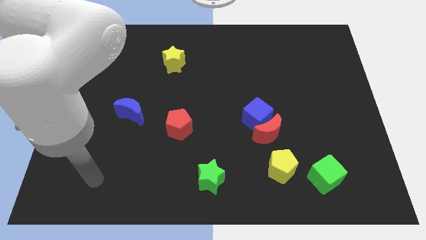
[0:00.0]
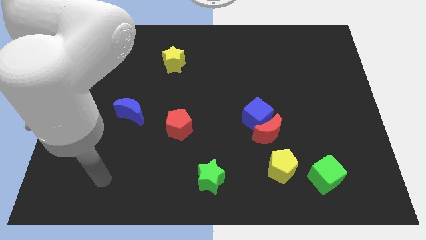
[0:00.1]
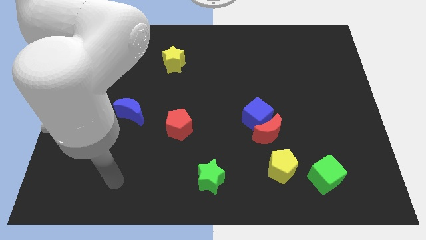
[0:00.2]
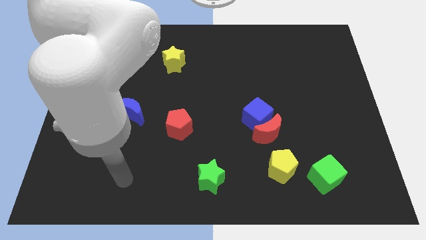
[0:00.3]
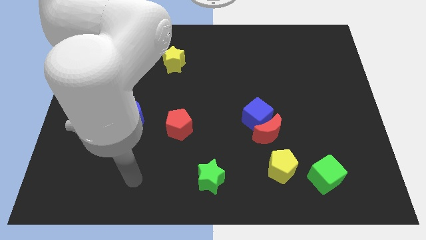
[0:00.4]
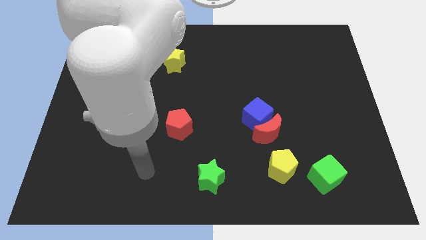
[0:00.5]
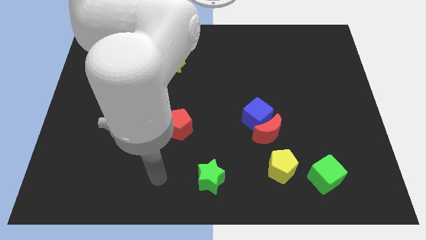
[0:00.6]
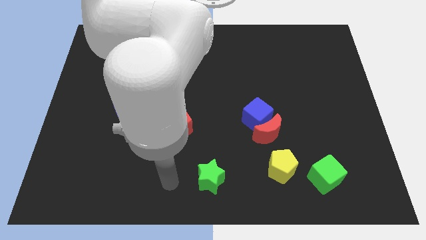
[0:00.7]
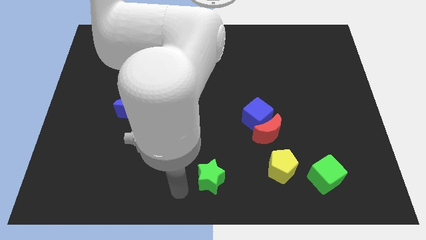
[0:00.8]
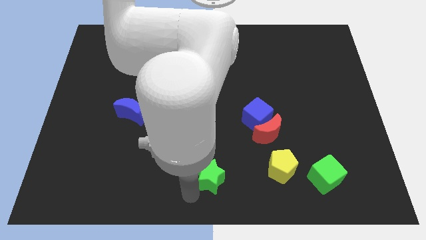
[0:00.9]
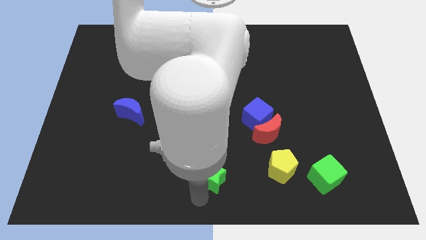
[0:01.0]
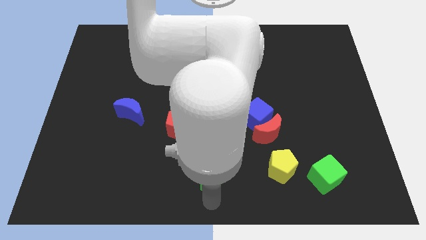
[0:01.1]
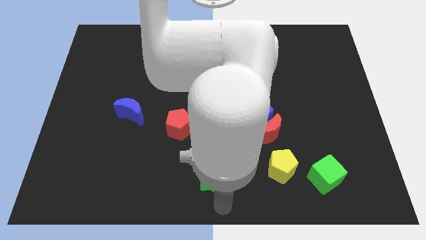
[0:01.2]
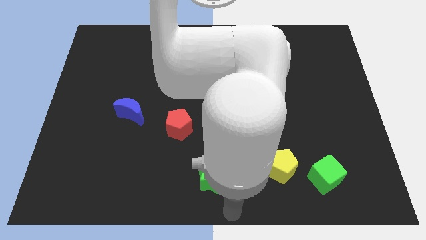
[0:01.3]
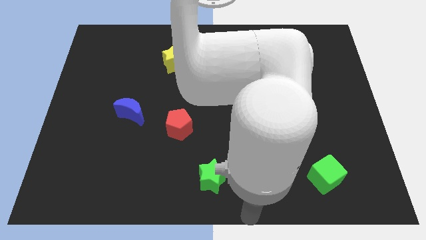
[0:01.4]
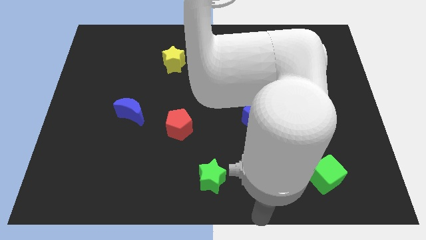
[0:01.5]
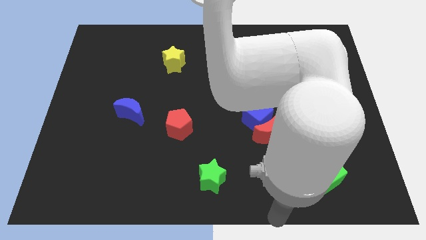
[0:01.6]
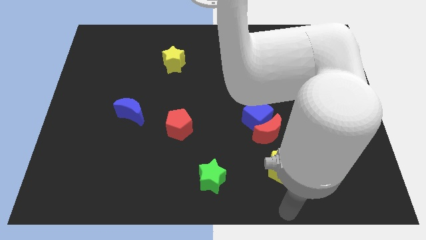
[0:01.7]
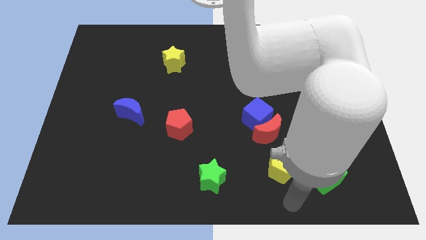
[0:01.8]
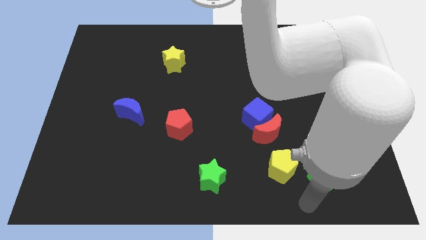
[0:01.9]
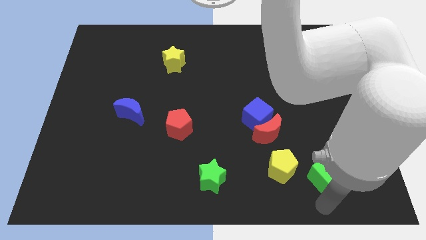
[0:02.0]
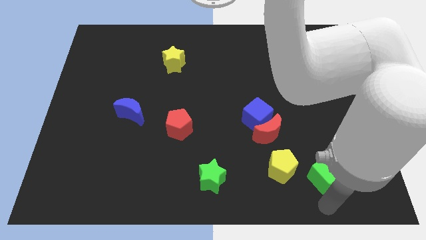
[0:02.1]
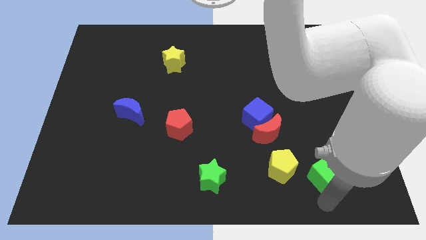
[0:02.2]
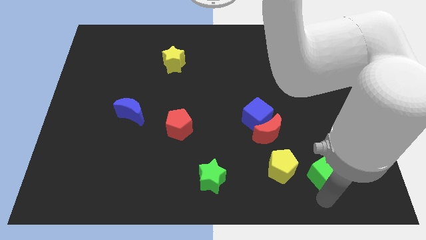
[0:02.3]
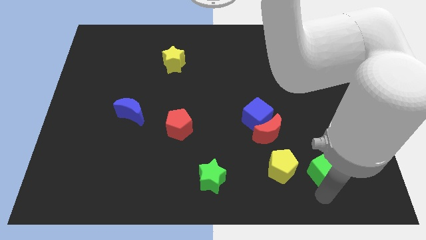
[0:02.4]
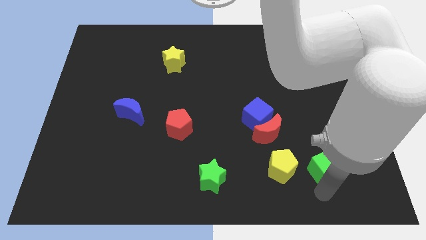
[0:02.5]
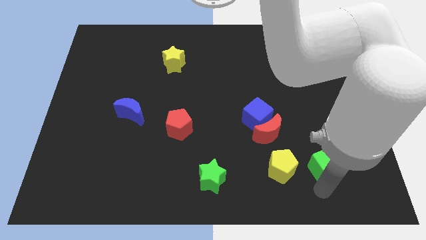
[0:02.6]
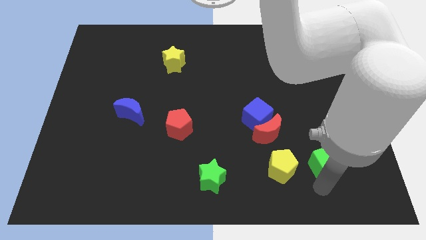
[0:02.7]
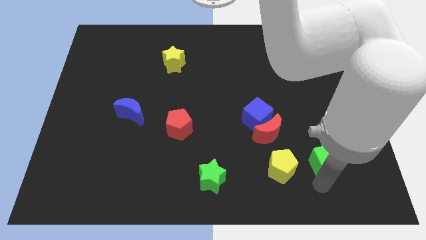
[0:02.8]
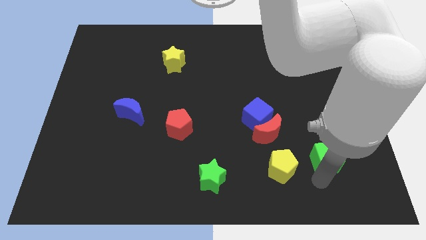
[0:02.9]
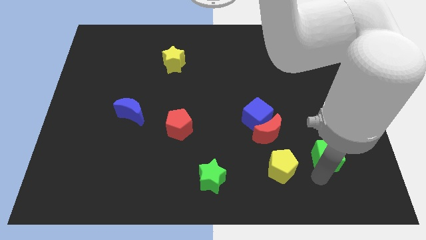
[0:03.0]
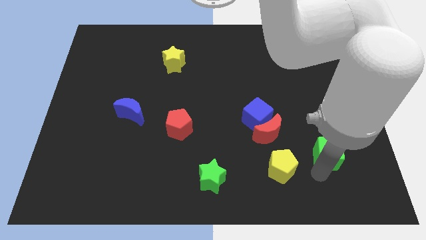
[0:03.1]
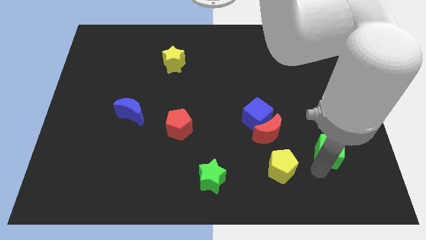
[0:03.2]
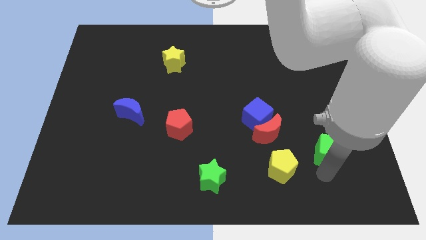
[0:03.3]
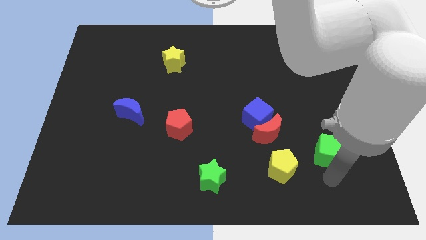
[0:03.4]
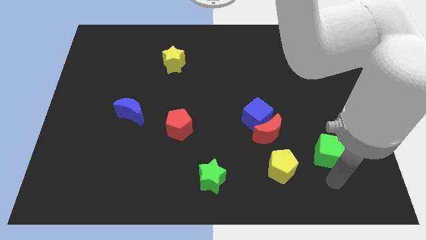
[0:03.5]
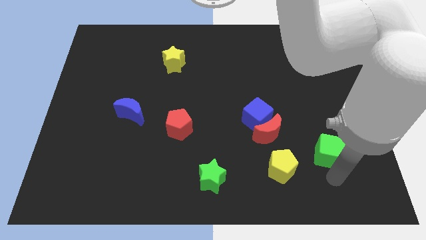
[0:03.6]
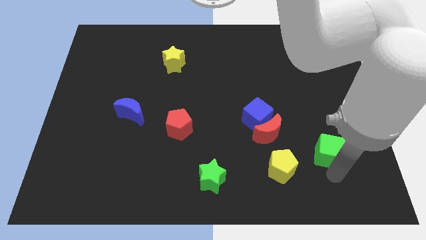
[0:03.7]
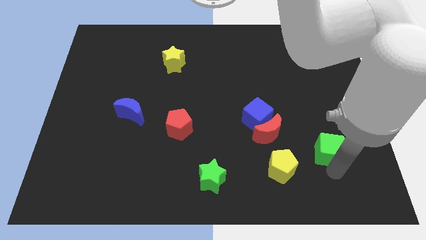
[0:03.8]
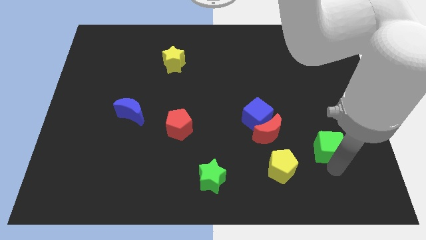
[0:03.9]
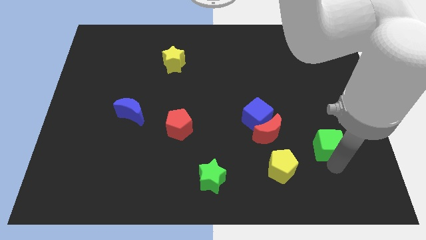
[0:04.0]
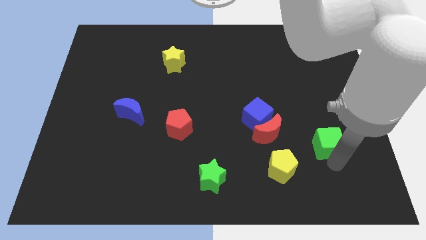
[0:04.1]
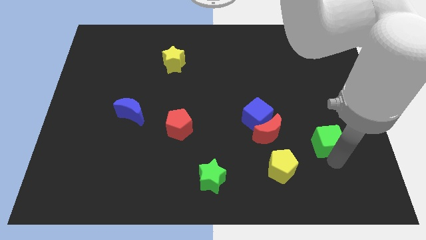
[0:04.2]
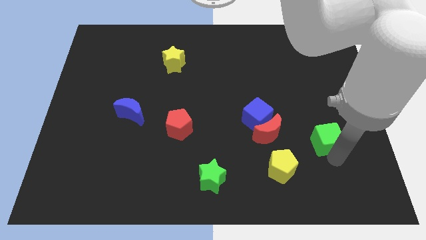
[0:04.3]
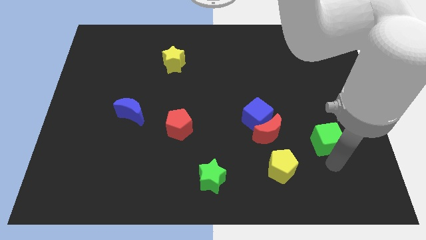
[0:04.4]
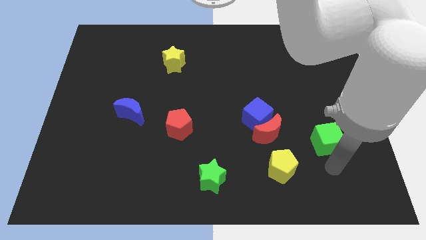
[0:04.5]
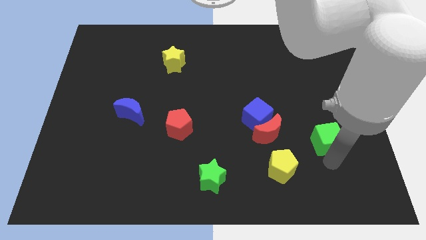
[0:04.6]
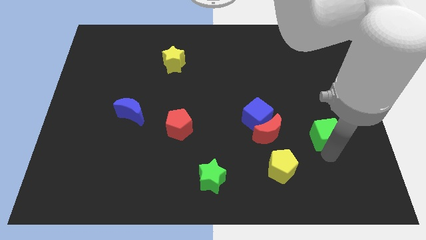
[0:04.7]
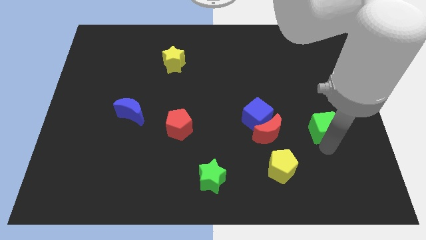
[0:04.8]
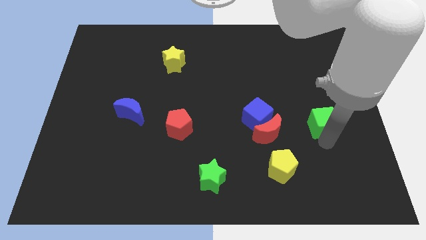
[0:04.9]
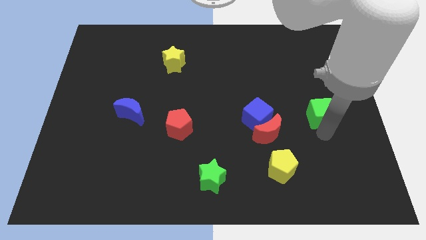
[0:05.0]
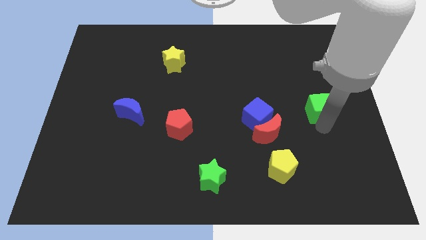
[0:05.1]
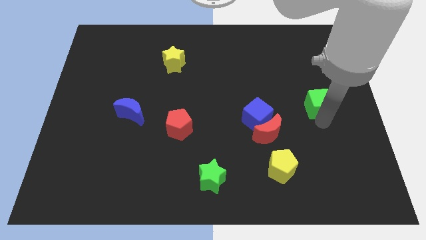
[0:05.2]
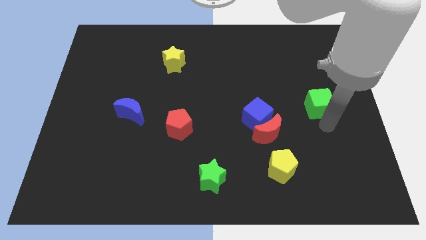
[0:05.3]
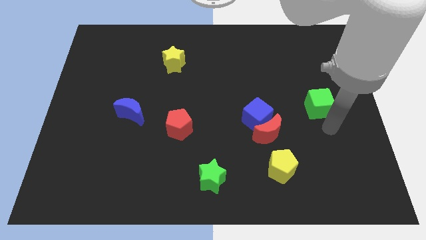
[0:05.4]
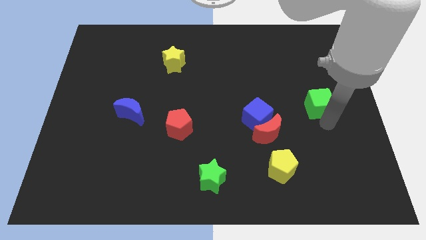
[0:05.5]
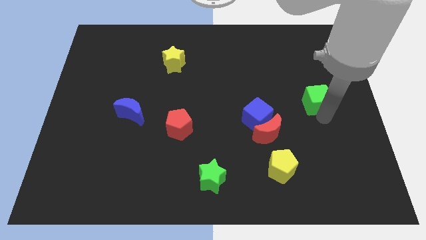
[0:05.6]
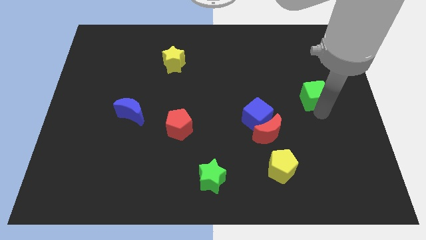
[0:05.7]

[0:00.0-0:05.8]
move the green cube upwards

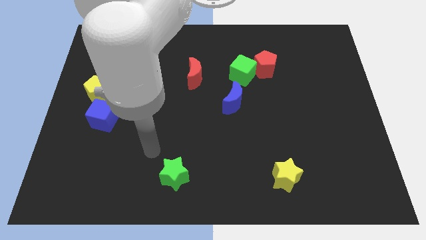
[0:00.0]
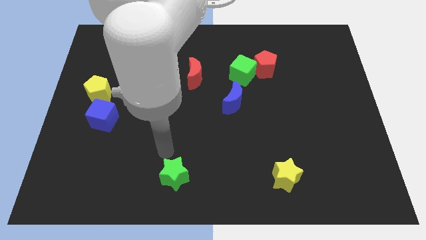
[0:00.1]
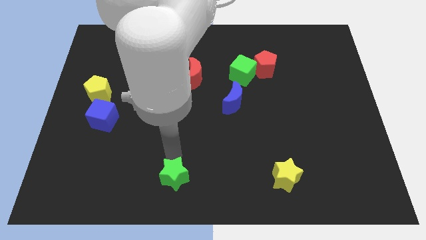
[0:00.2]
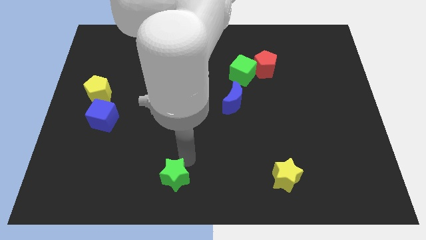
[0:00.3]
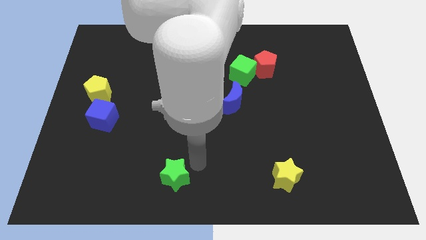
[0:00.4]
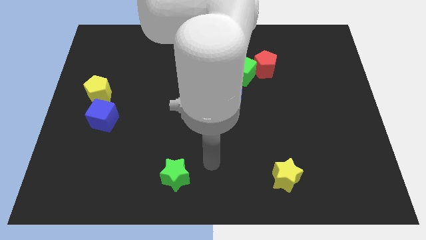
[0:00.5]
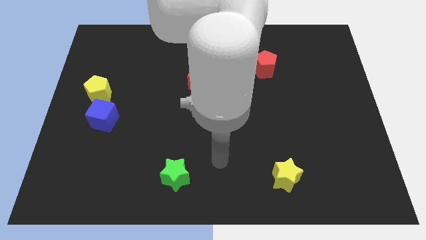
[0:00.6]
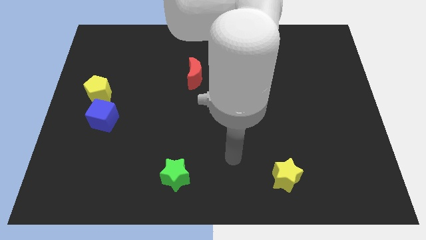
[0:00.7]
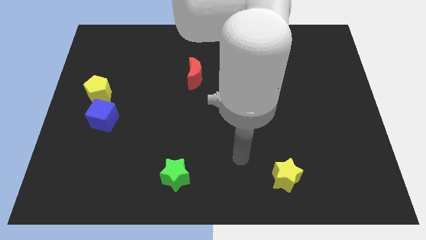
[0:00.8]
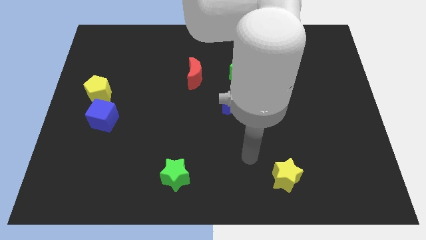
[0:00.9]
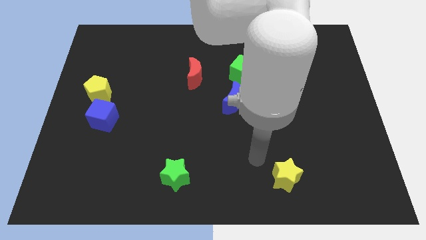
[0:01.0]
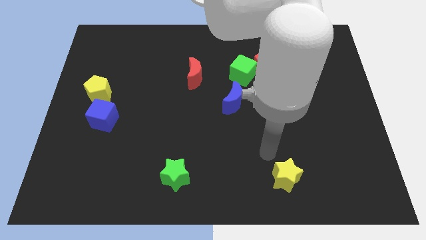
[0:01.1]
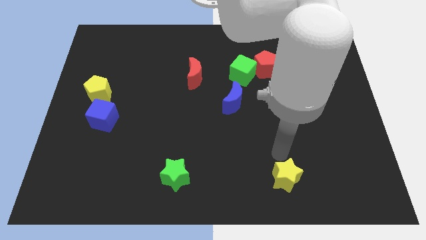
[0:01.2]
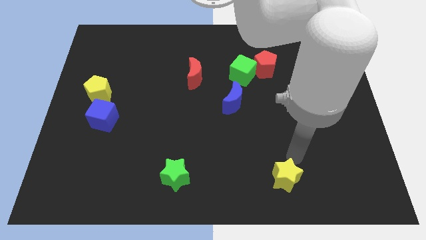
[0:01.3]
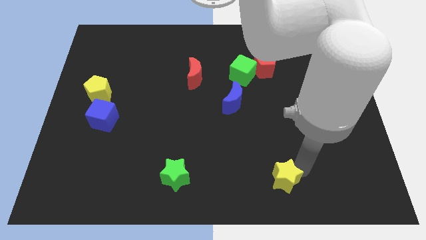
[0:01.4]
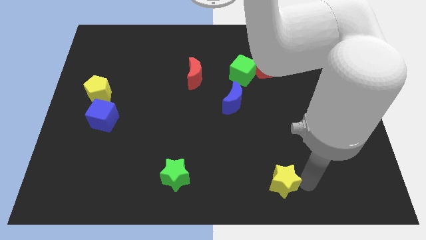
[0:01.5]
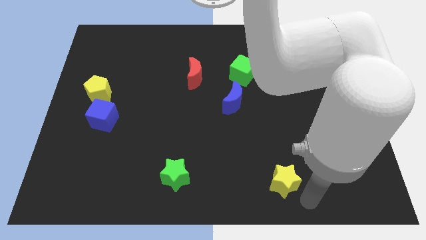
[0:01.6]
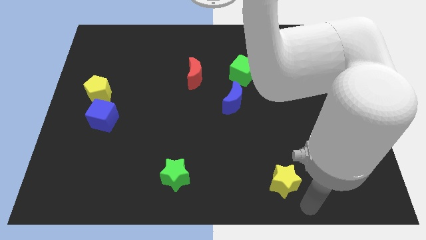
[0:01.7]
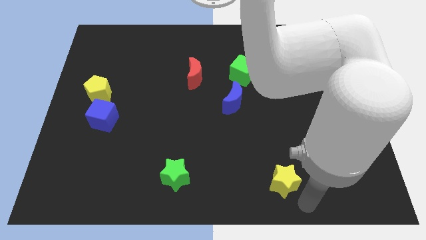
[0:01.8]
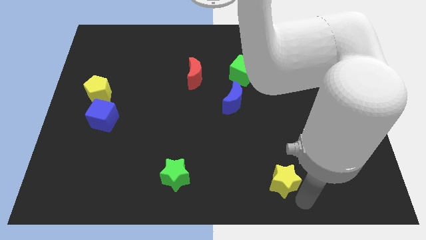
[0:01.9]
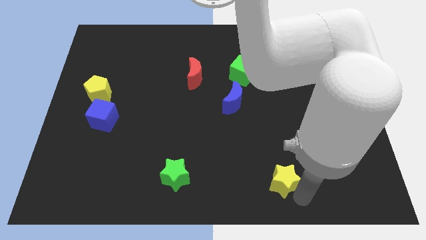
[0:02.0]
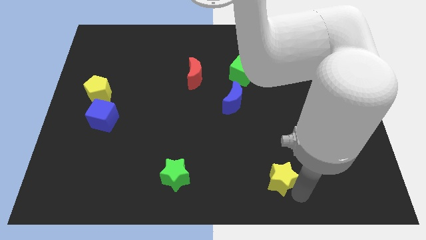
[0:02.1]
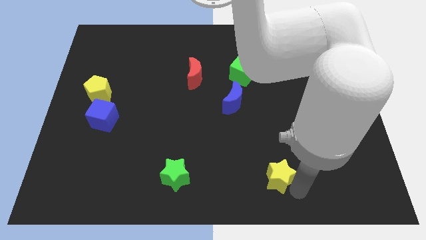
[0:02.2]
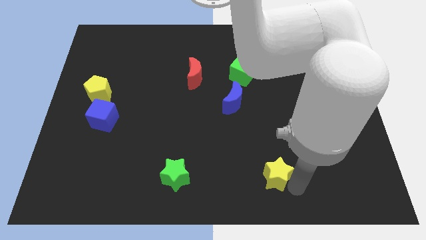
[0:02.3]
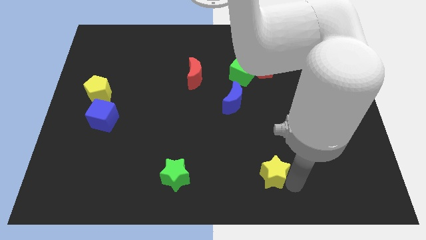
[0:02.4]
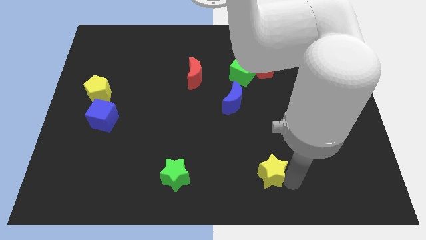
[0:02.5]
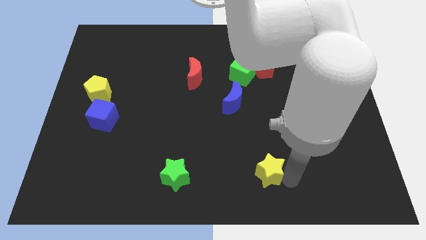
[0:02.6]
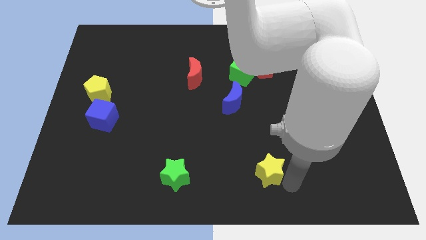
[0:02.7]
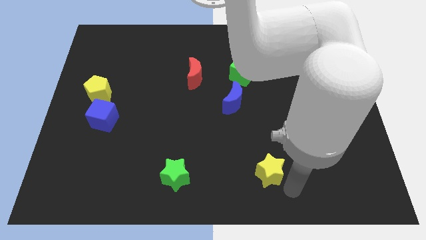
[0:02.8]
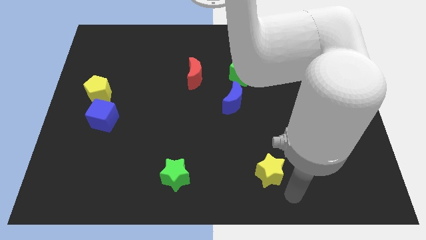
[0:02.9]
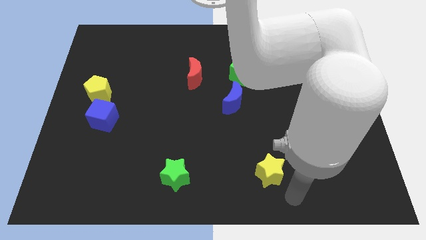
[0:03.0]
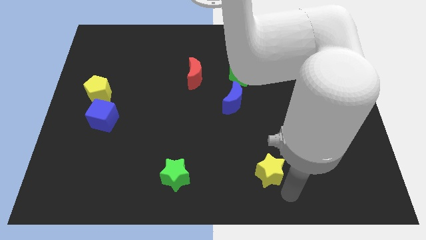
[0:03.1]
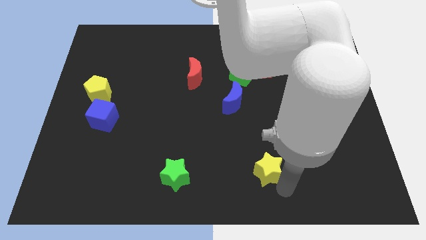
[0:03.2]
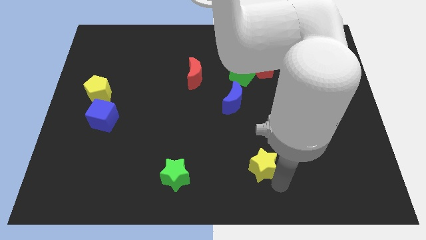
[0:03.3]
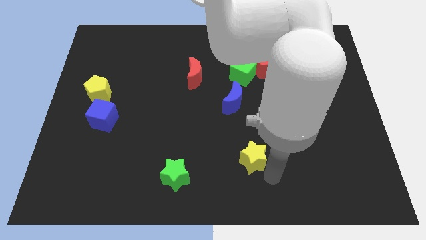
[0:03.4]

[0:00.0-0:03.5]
push the yellow star somewhat up and to the left
